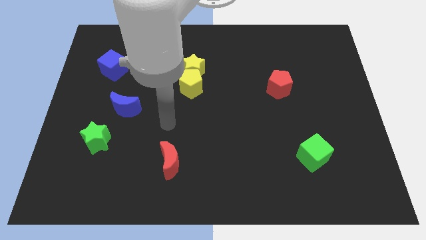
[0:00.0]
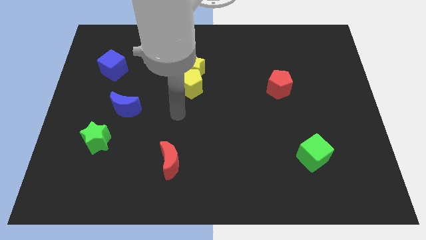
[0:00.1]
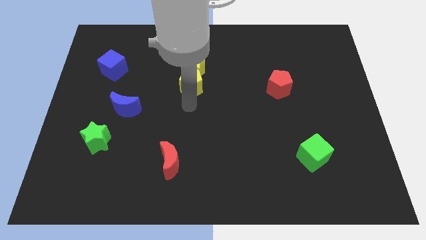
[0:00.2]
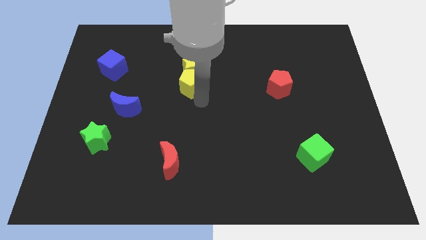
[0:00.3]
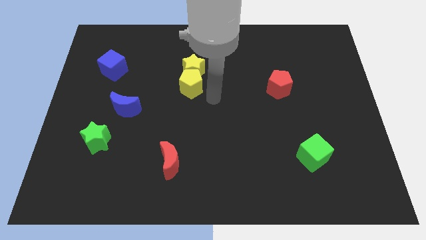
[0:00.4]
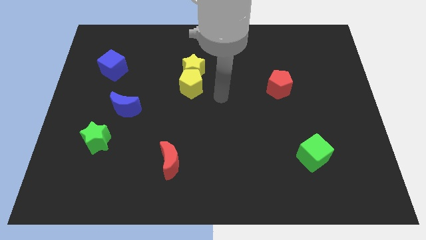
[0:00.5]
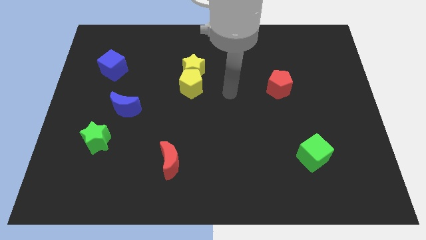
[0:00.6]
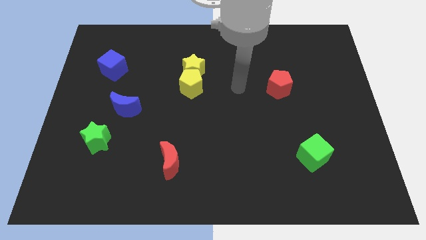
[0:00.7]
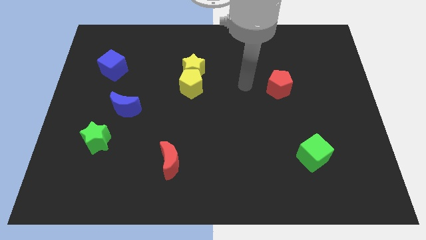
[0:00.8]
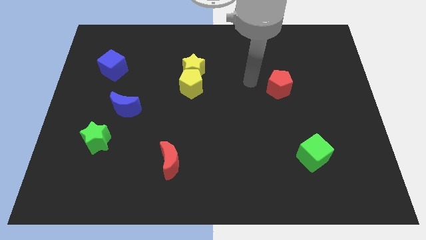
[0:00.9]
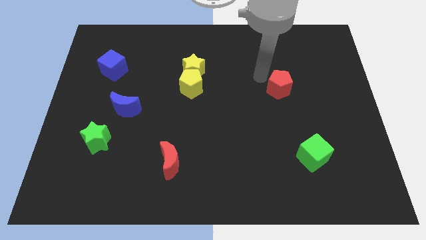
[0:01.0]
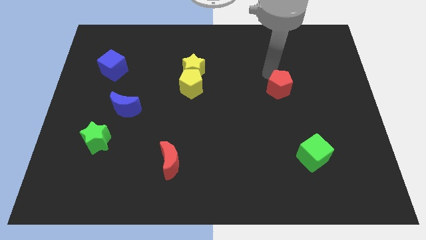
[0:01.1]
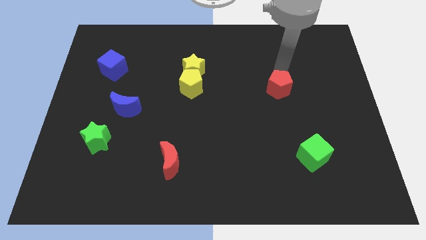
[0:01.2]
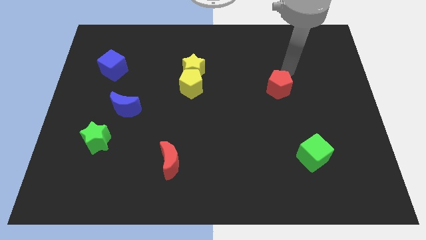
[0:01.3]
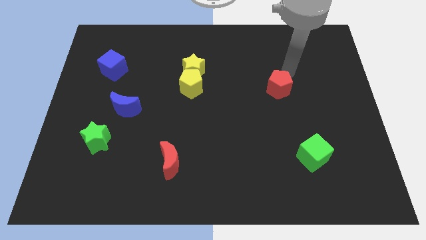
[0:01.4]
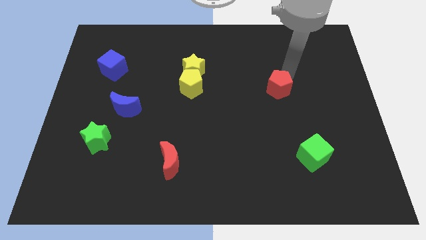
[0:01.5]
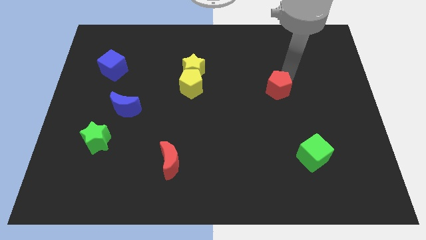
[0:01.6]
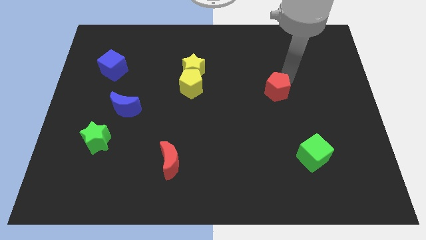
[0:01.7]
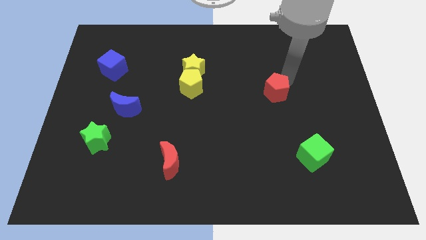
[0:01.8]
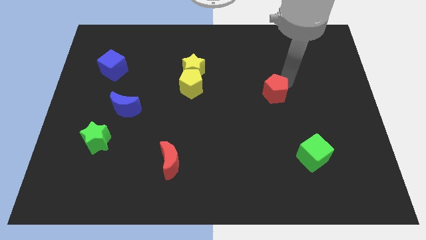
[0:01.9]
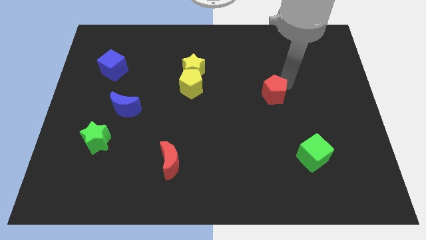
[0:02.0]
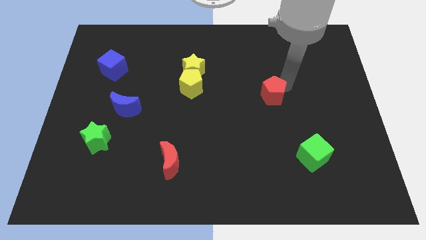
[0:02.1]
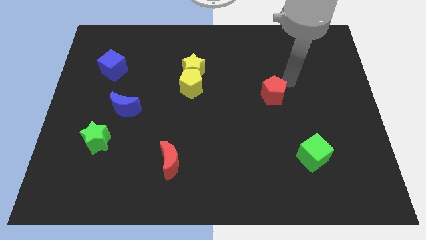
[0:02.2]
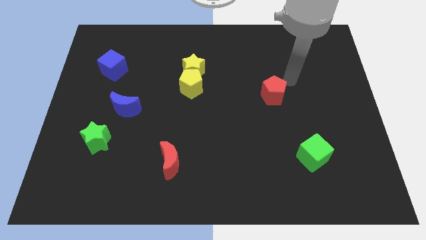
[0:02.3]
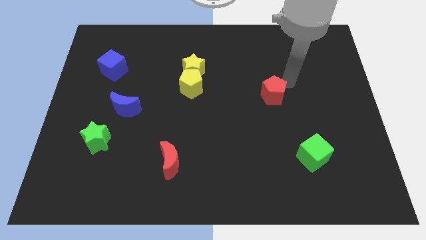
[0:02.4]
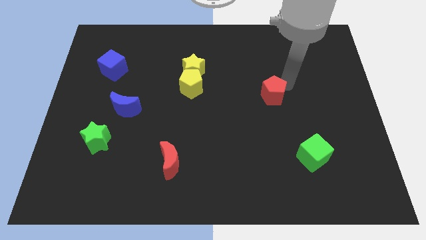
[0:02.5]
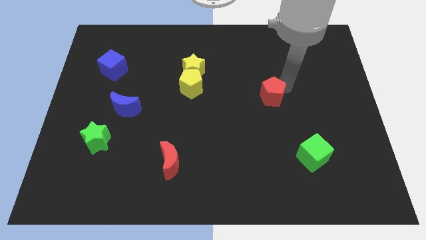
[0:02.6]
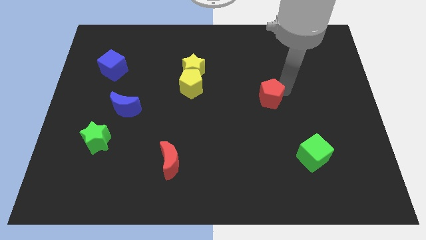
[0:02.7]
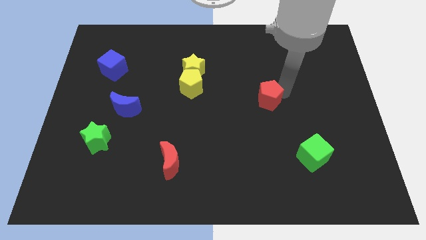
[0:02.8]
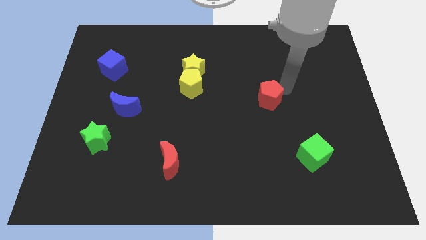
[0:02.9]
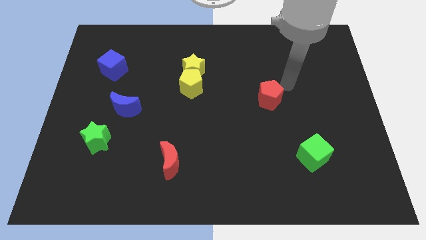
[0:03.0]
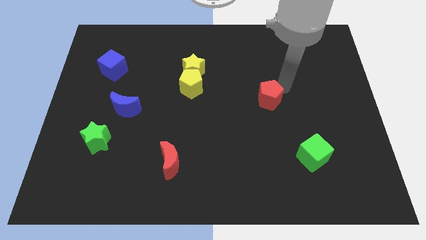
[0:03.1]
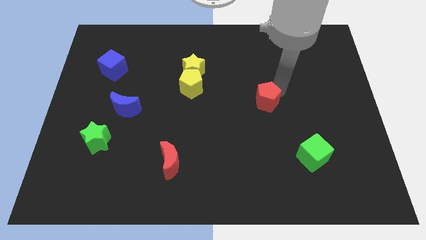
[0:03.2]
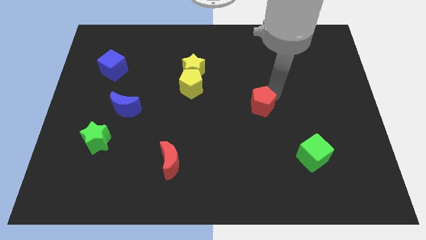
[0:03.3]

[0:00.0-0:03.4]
slightly push the red pentagon down and to the left

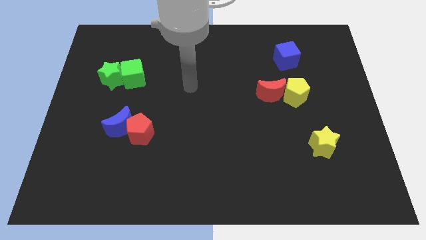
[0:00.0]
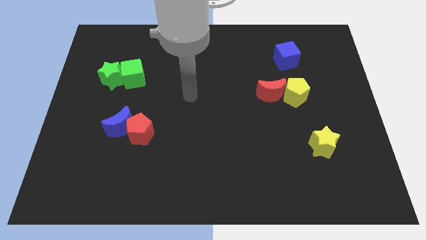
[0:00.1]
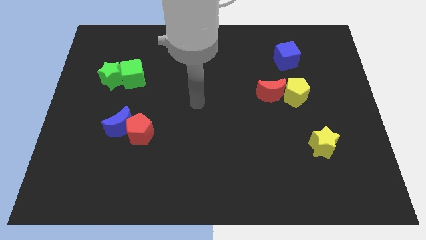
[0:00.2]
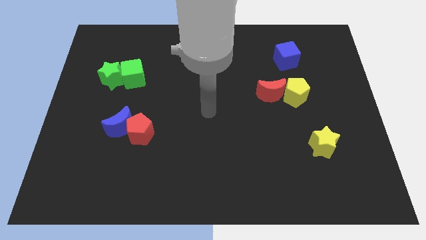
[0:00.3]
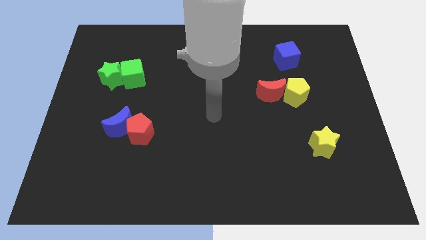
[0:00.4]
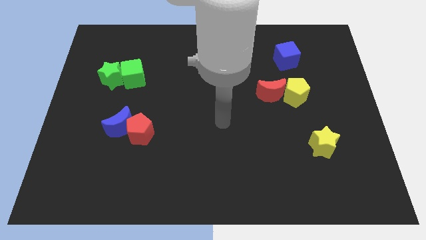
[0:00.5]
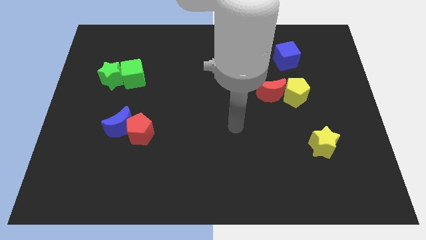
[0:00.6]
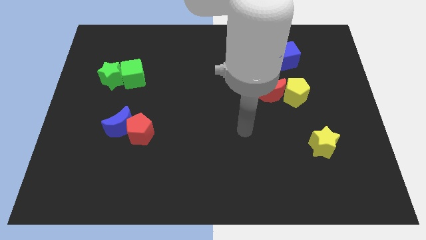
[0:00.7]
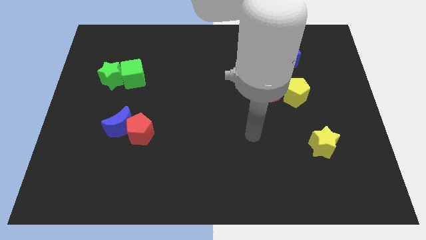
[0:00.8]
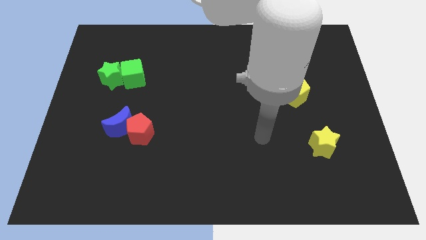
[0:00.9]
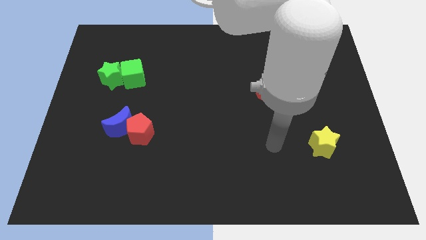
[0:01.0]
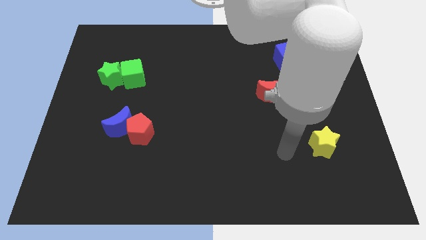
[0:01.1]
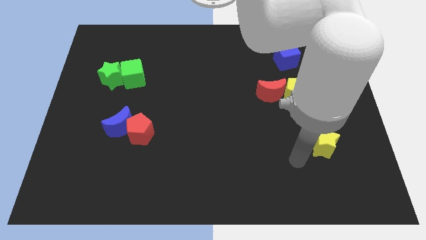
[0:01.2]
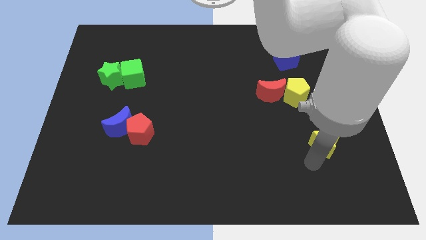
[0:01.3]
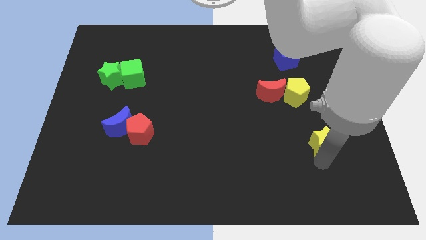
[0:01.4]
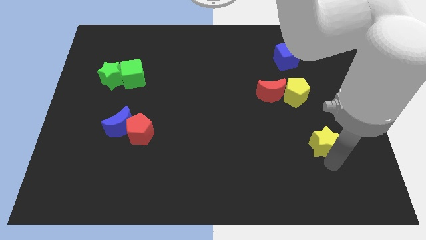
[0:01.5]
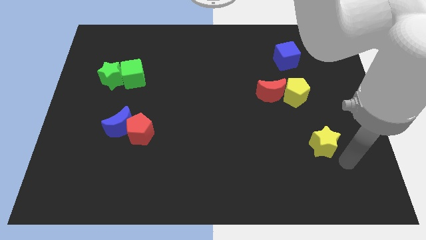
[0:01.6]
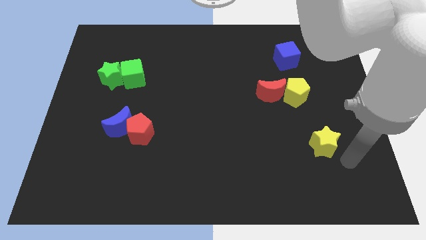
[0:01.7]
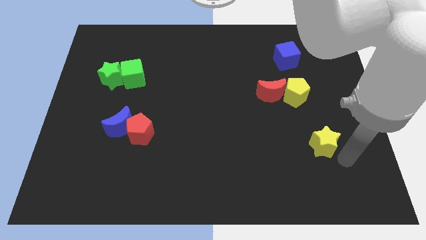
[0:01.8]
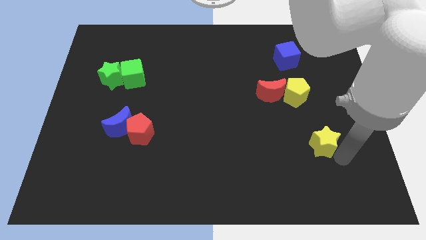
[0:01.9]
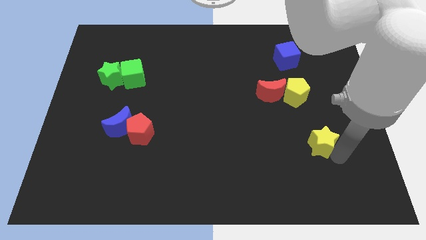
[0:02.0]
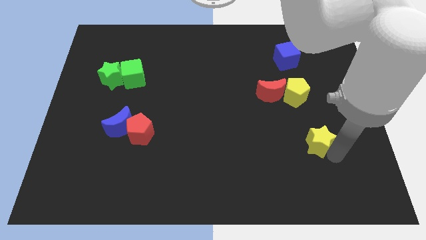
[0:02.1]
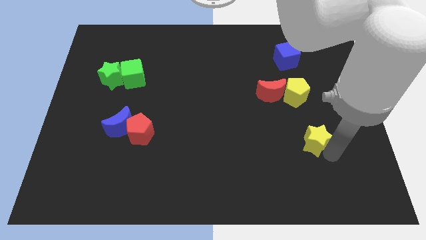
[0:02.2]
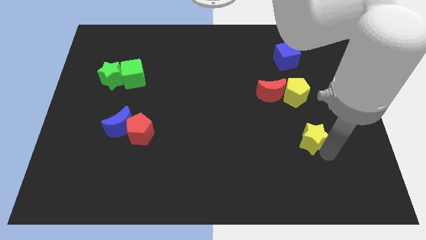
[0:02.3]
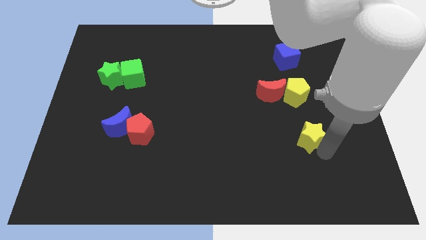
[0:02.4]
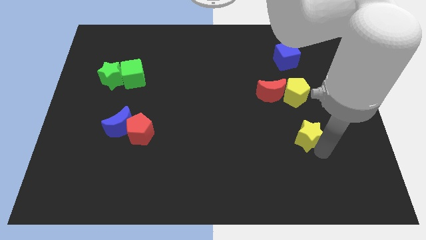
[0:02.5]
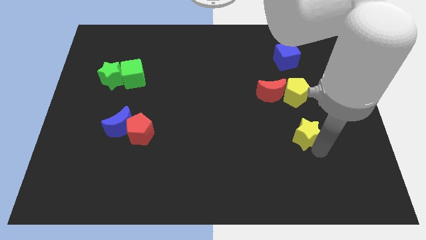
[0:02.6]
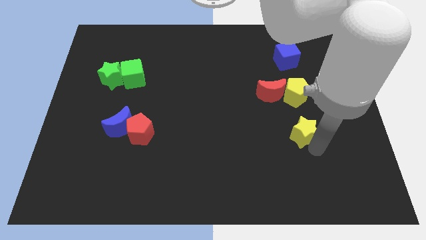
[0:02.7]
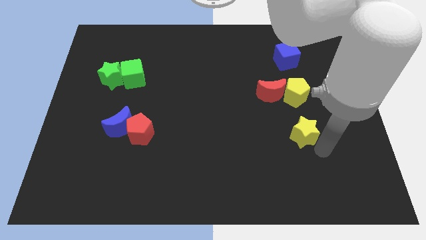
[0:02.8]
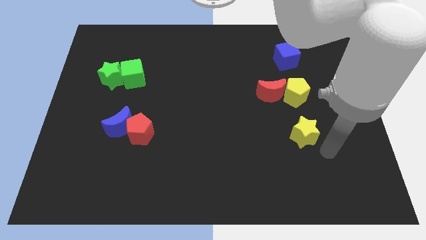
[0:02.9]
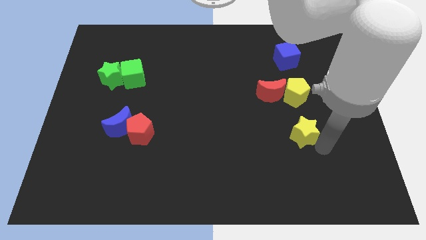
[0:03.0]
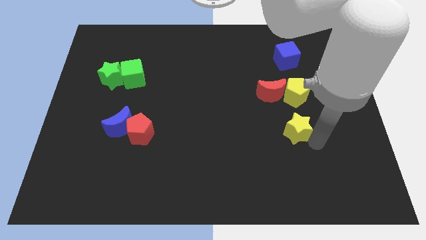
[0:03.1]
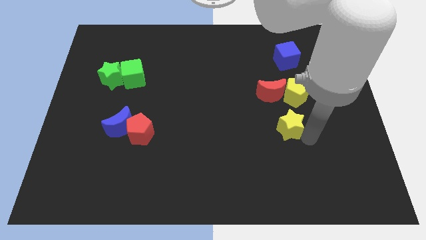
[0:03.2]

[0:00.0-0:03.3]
slightly push the yellow star upwards and then left

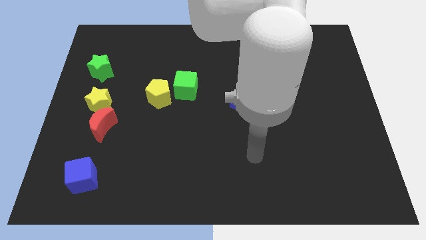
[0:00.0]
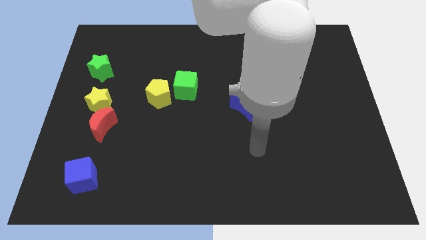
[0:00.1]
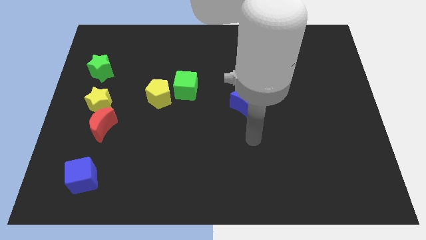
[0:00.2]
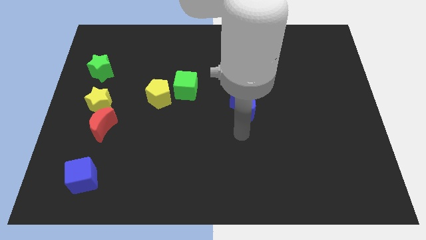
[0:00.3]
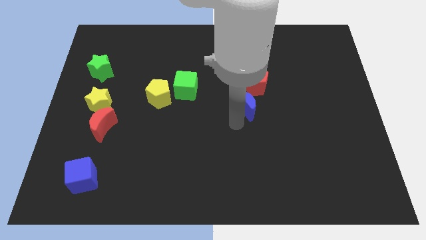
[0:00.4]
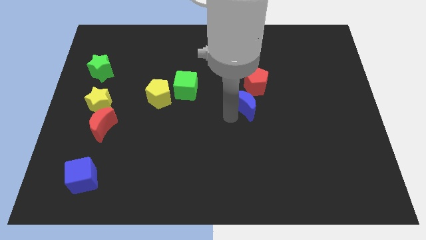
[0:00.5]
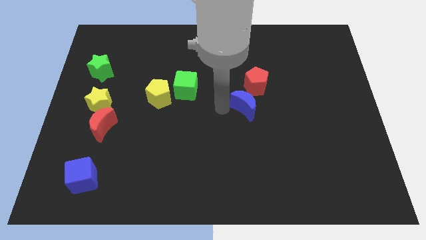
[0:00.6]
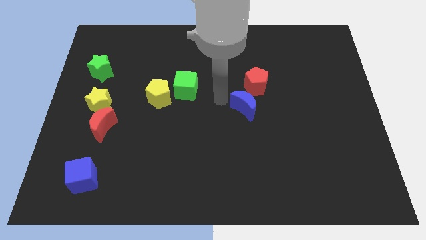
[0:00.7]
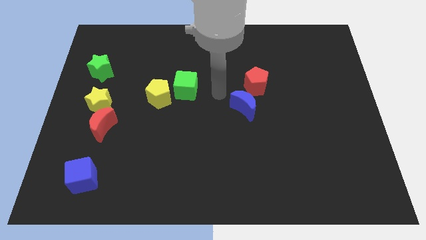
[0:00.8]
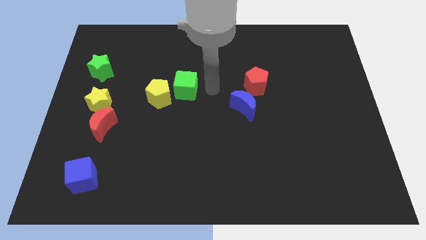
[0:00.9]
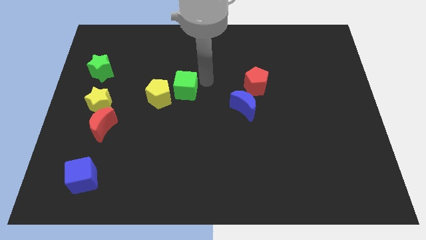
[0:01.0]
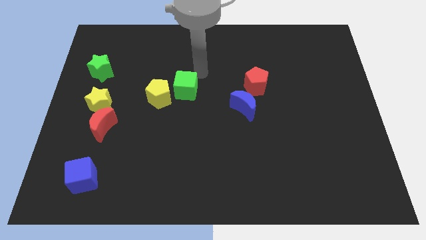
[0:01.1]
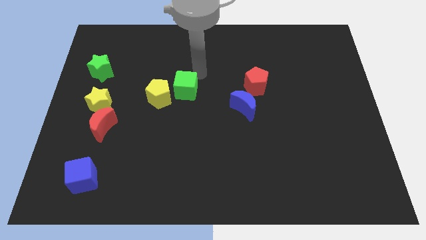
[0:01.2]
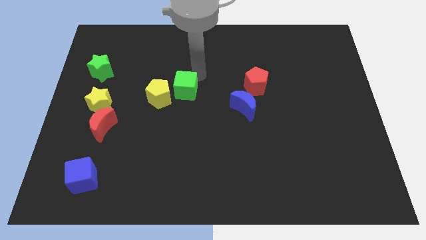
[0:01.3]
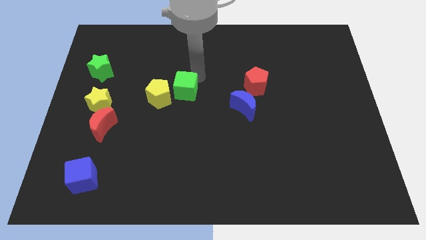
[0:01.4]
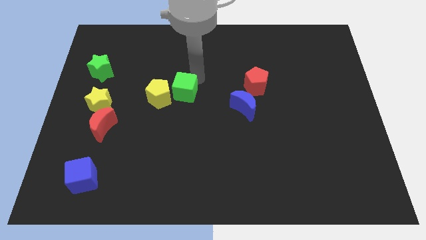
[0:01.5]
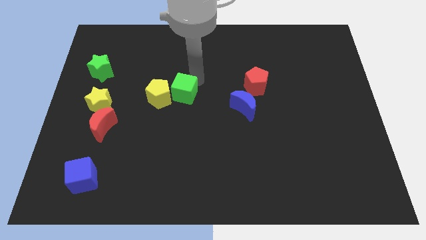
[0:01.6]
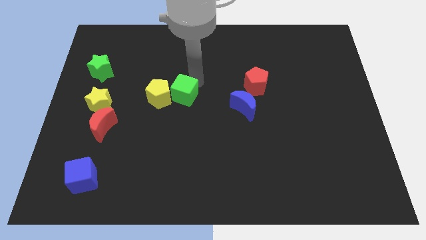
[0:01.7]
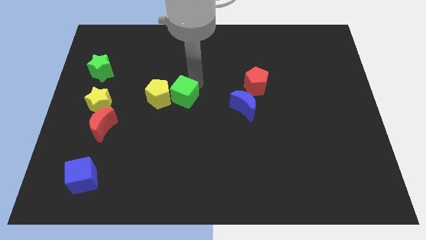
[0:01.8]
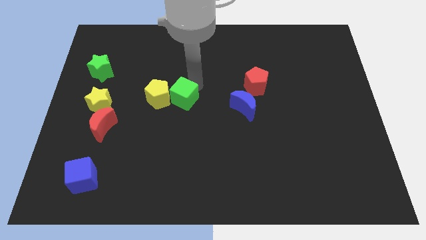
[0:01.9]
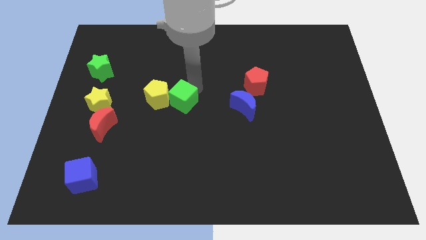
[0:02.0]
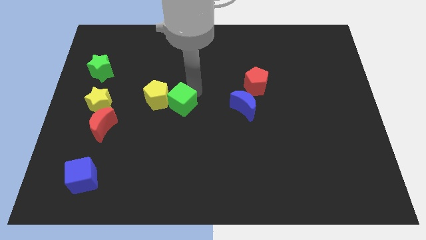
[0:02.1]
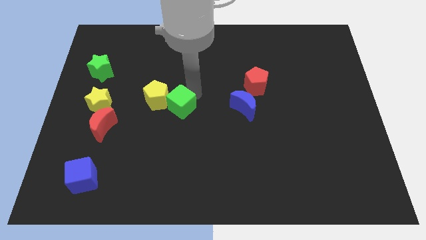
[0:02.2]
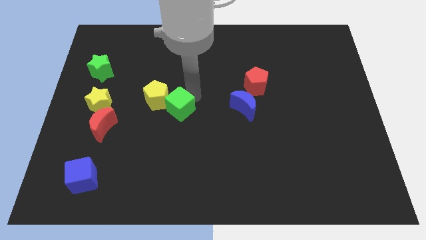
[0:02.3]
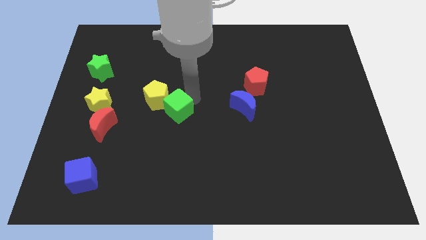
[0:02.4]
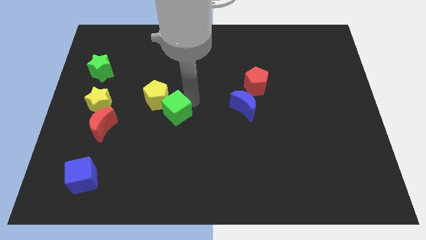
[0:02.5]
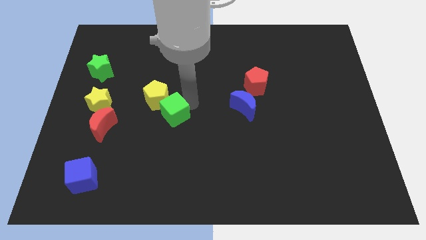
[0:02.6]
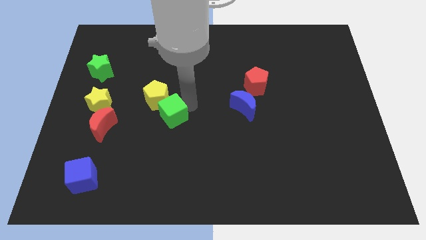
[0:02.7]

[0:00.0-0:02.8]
push the green cube a bit down and then to the left
